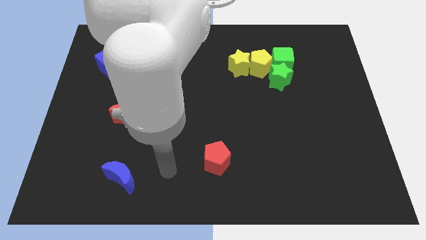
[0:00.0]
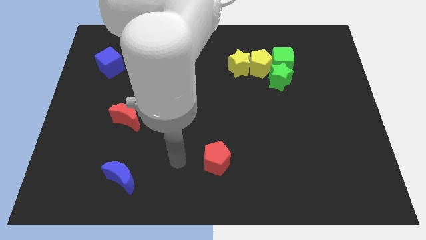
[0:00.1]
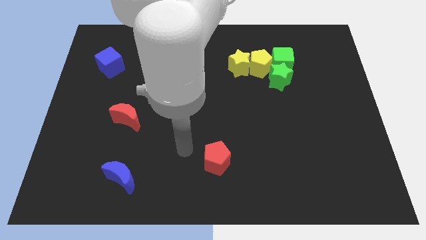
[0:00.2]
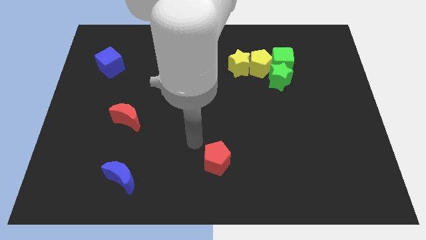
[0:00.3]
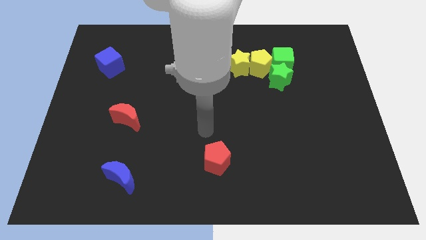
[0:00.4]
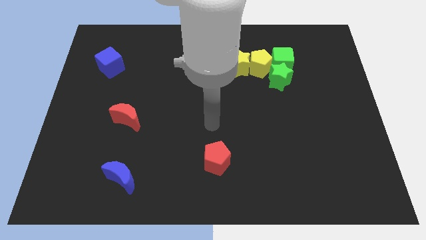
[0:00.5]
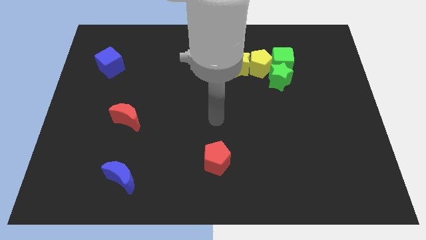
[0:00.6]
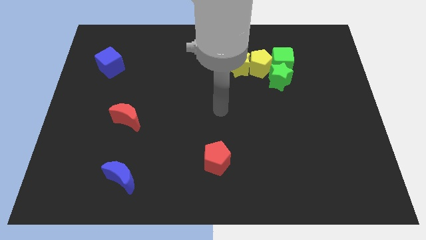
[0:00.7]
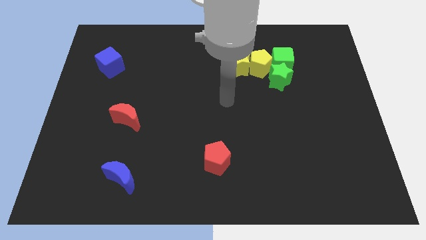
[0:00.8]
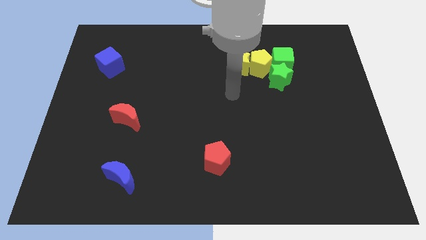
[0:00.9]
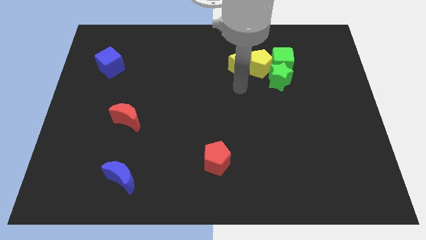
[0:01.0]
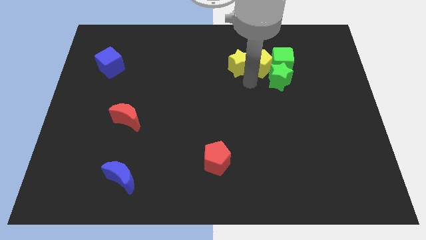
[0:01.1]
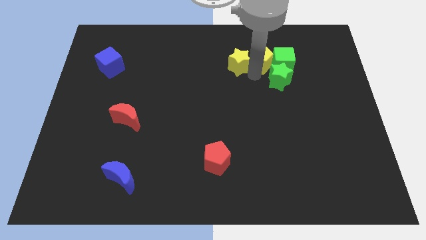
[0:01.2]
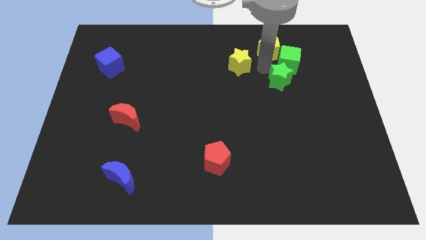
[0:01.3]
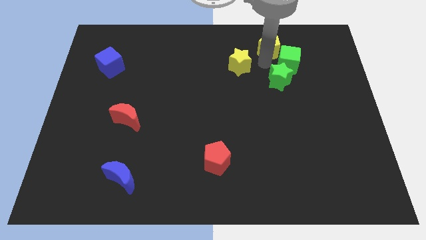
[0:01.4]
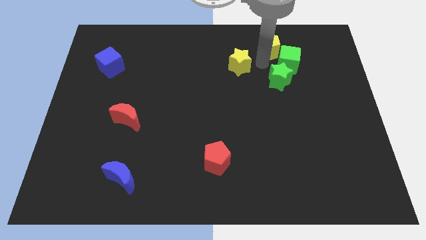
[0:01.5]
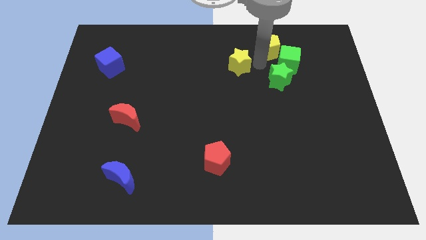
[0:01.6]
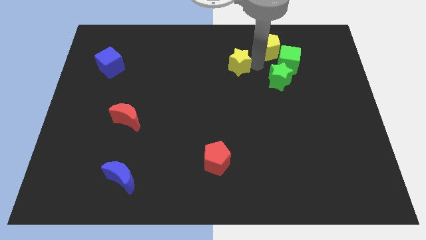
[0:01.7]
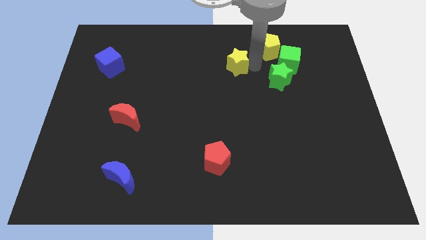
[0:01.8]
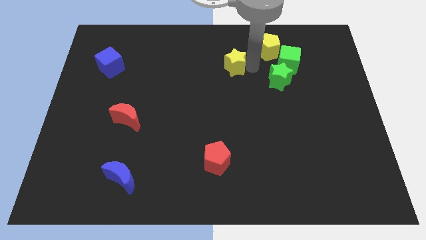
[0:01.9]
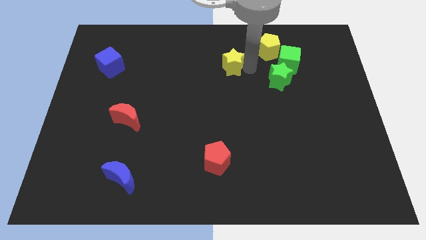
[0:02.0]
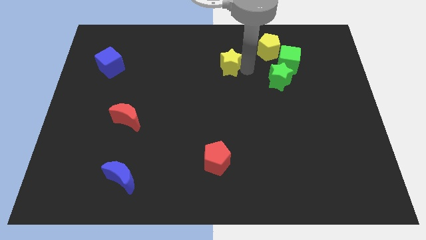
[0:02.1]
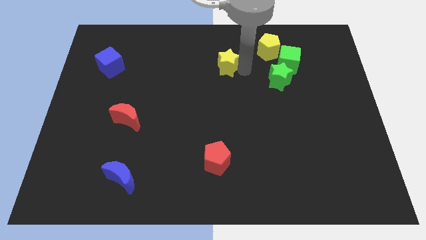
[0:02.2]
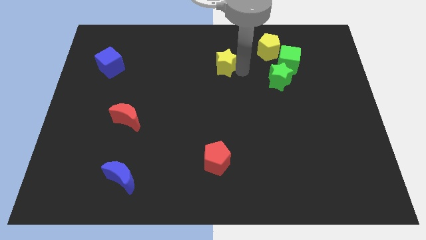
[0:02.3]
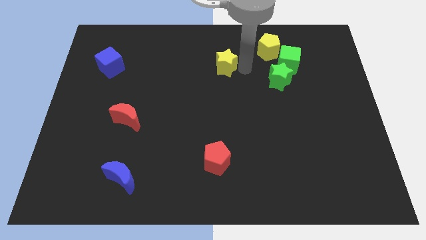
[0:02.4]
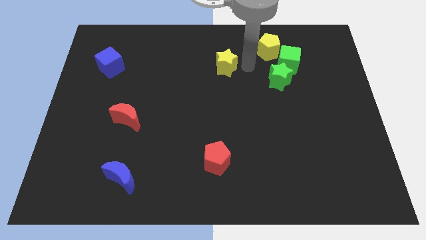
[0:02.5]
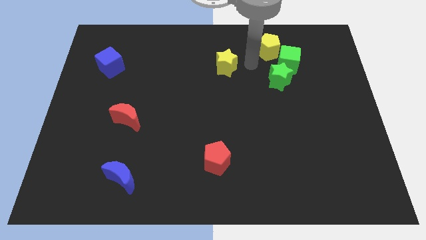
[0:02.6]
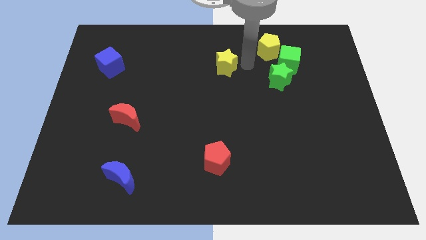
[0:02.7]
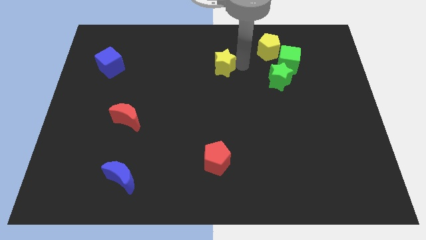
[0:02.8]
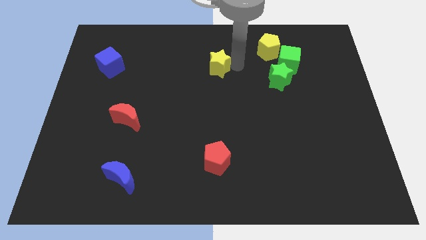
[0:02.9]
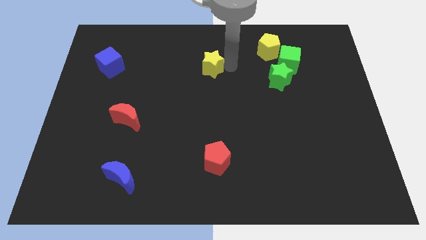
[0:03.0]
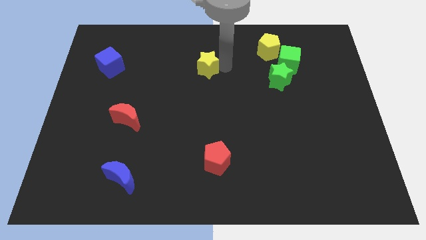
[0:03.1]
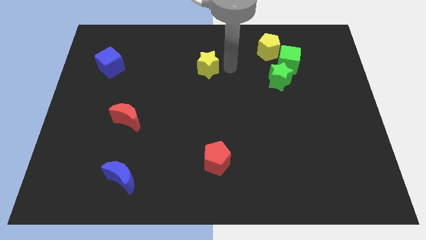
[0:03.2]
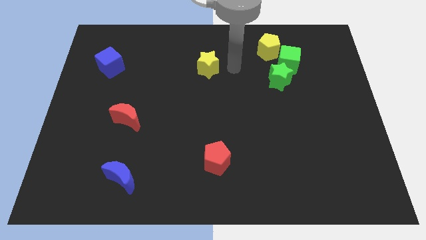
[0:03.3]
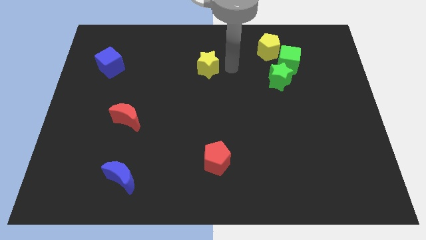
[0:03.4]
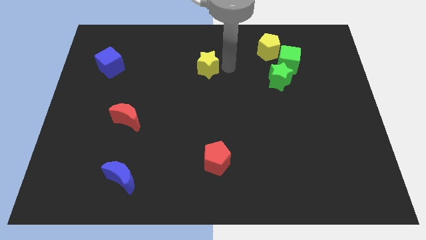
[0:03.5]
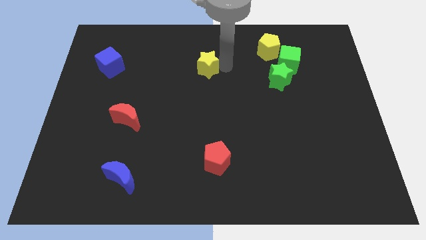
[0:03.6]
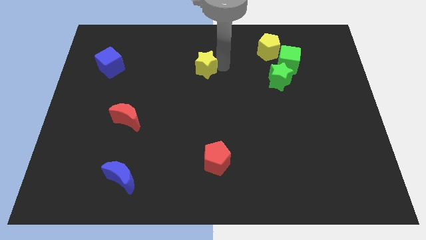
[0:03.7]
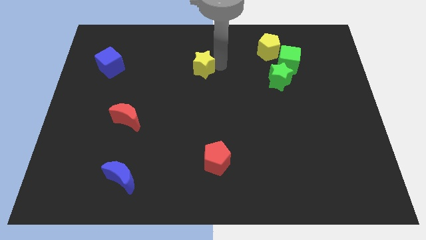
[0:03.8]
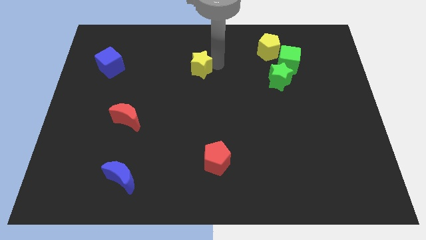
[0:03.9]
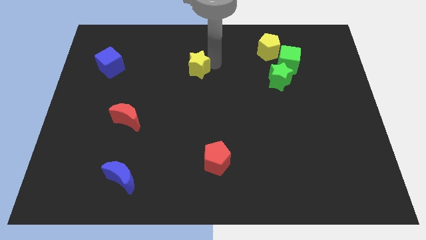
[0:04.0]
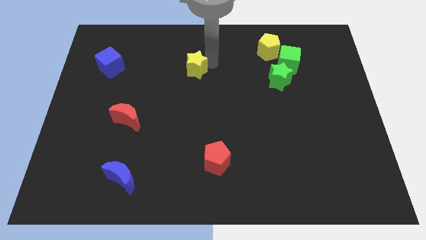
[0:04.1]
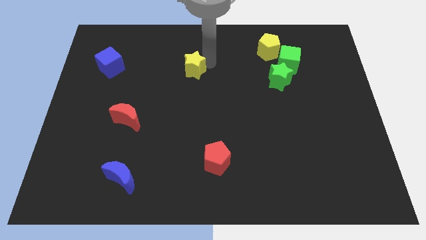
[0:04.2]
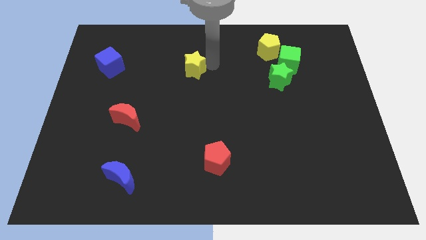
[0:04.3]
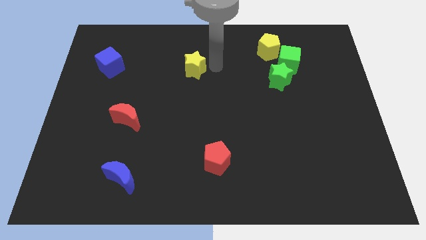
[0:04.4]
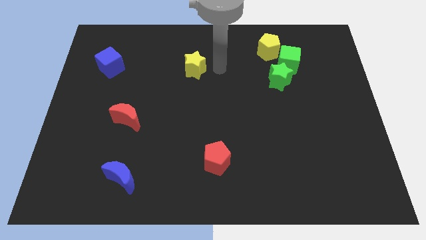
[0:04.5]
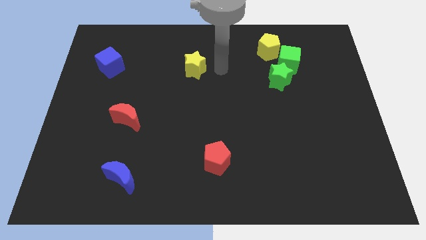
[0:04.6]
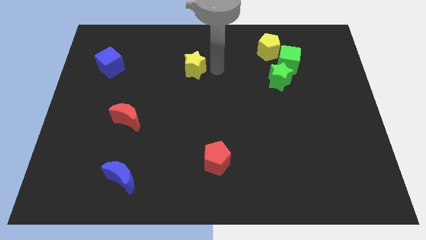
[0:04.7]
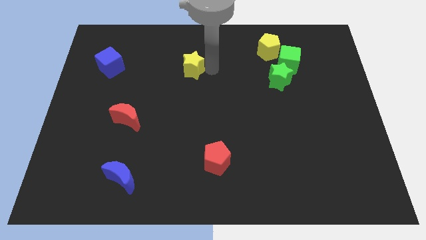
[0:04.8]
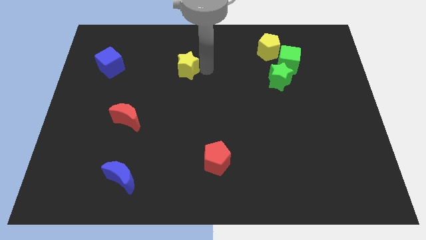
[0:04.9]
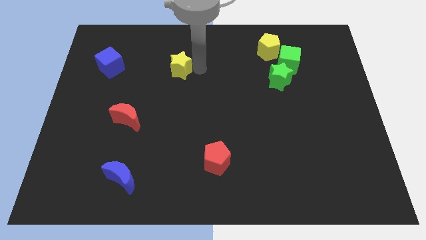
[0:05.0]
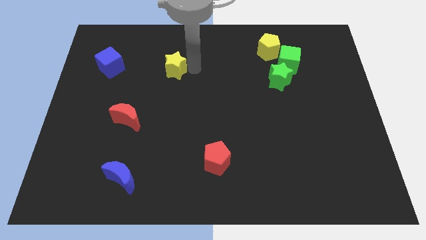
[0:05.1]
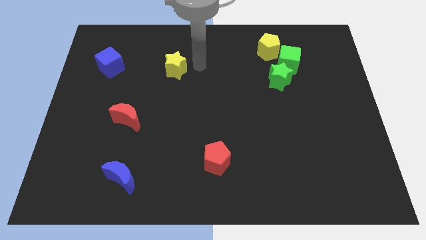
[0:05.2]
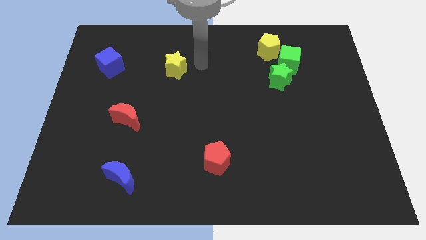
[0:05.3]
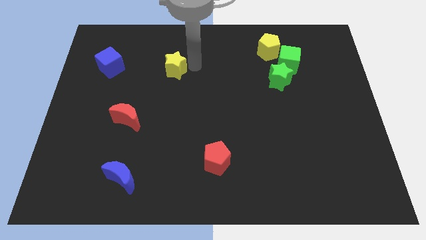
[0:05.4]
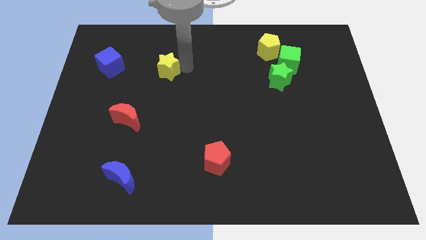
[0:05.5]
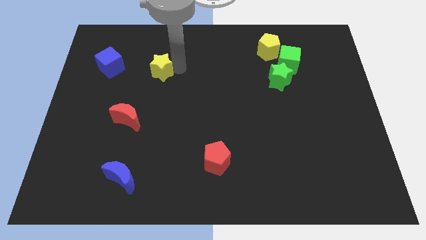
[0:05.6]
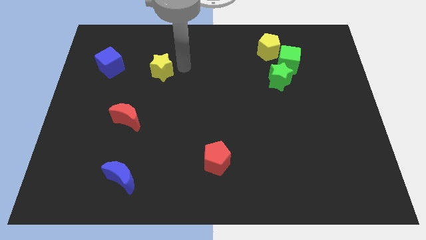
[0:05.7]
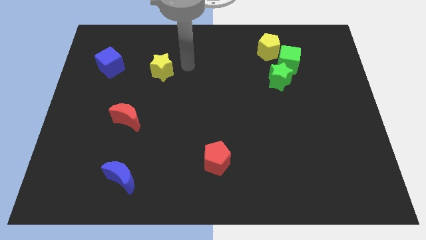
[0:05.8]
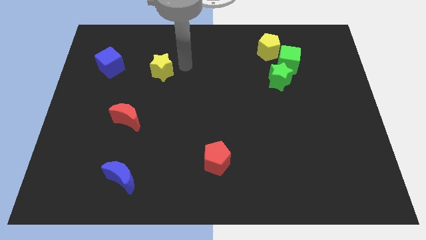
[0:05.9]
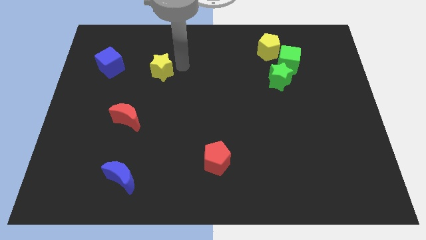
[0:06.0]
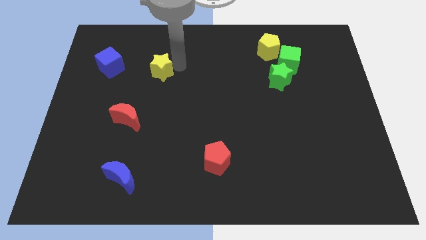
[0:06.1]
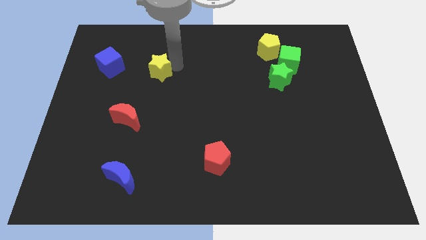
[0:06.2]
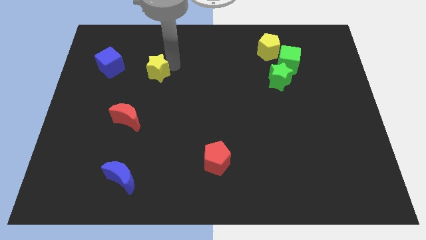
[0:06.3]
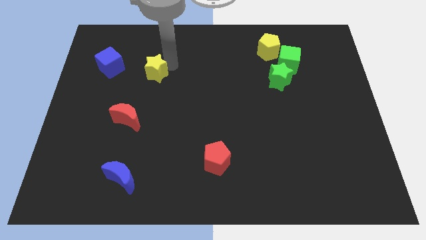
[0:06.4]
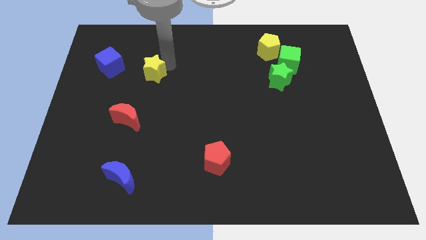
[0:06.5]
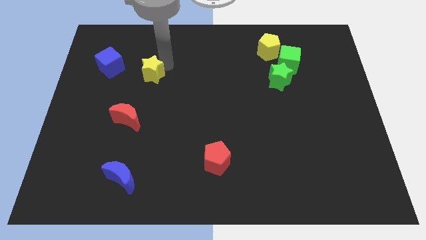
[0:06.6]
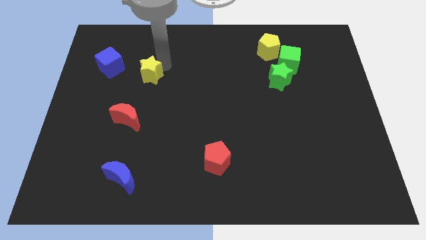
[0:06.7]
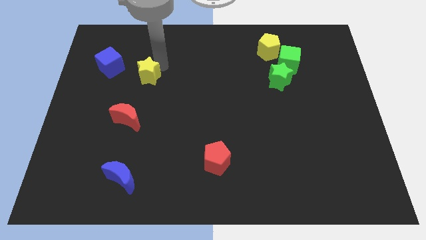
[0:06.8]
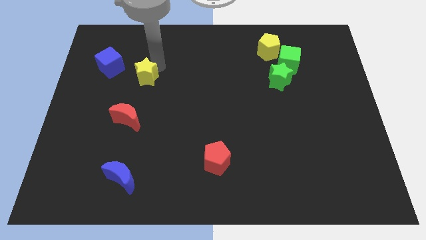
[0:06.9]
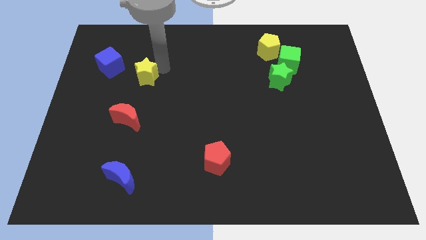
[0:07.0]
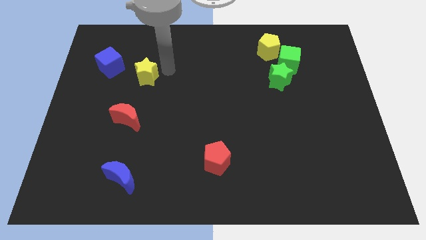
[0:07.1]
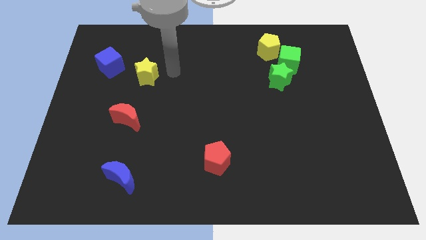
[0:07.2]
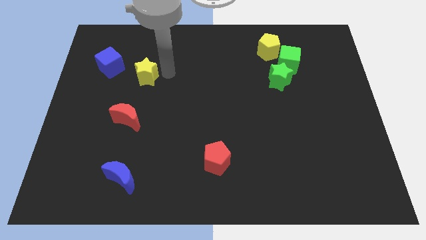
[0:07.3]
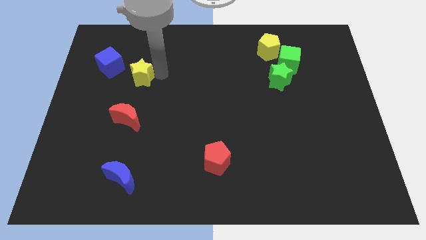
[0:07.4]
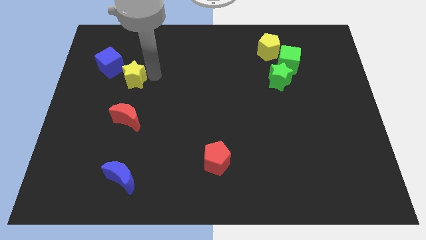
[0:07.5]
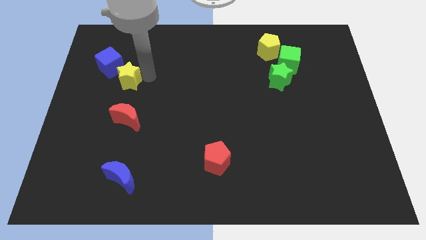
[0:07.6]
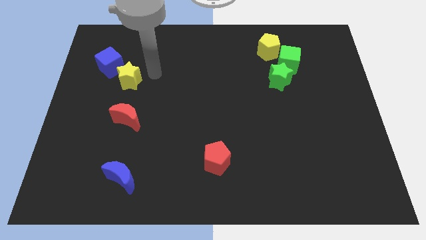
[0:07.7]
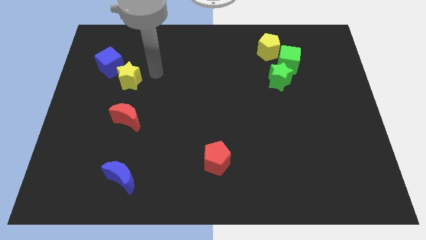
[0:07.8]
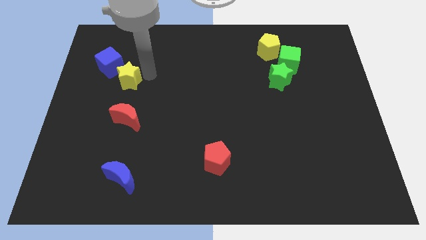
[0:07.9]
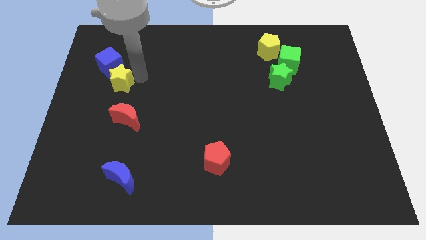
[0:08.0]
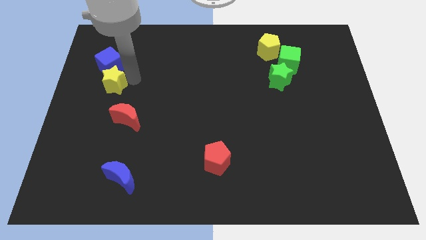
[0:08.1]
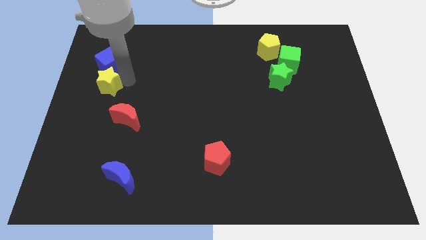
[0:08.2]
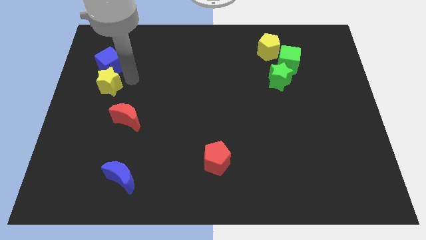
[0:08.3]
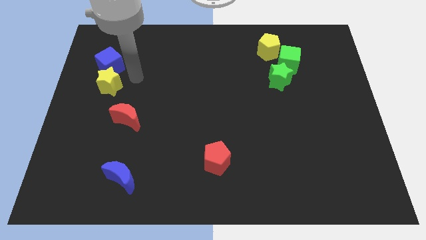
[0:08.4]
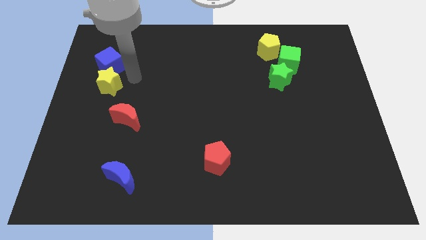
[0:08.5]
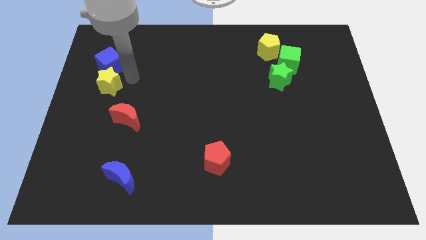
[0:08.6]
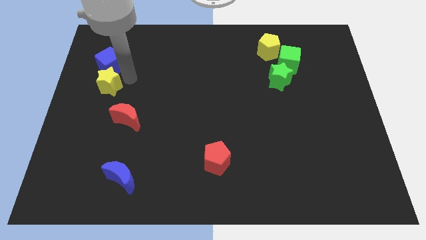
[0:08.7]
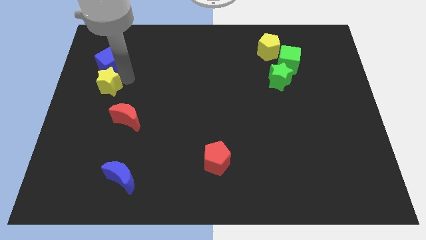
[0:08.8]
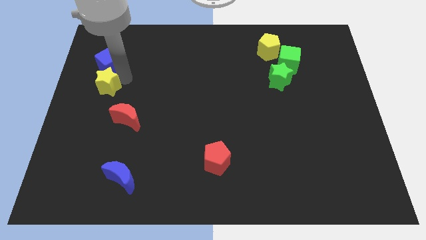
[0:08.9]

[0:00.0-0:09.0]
push the yellow star to the center left
